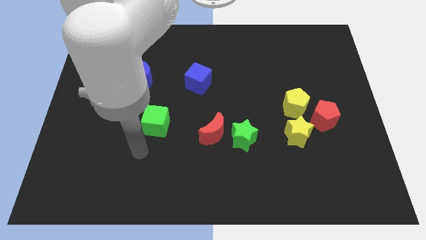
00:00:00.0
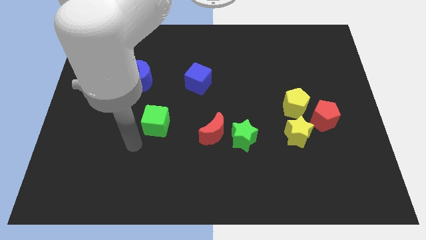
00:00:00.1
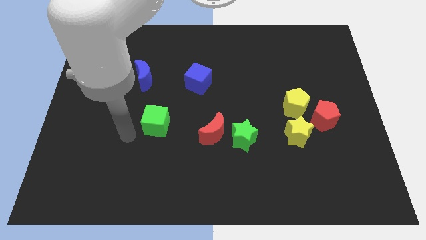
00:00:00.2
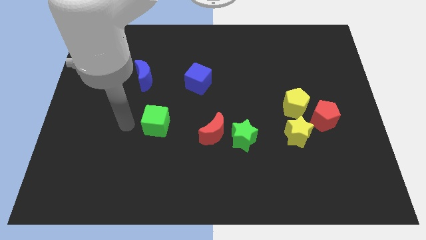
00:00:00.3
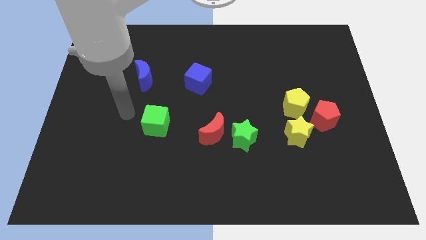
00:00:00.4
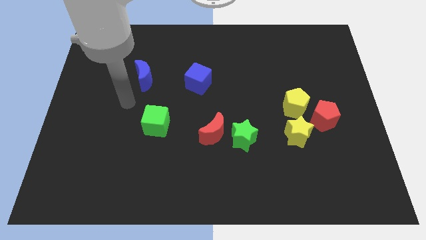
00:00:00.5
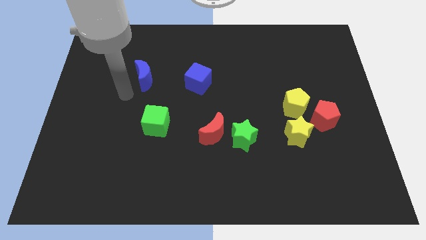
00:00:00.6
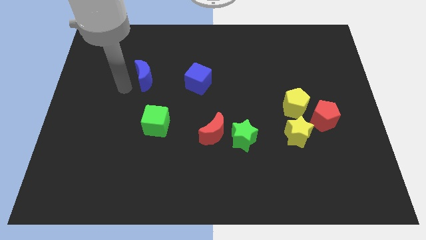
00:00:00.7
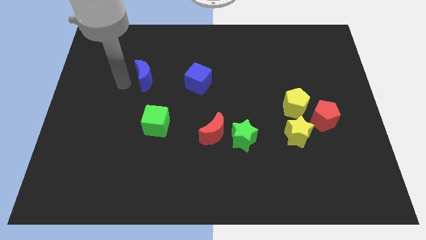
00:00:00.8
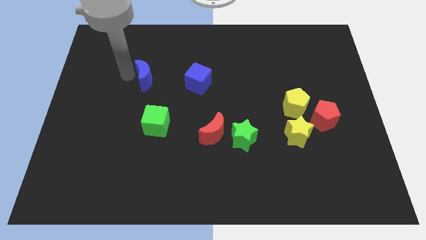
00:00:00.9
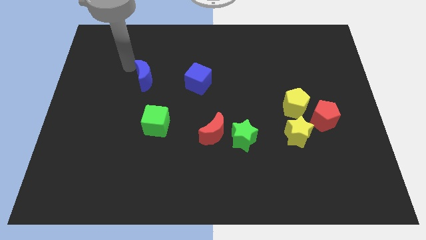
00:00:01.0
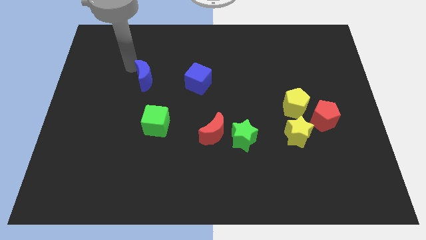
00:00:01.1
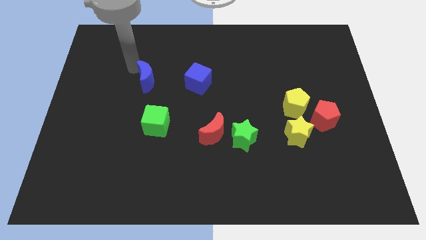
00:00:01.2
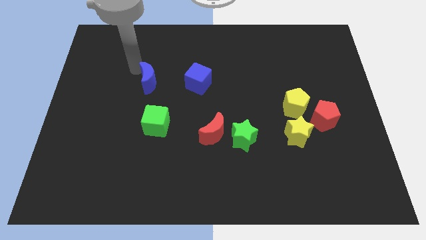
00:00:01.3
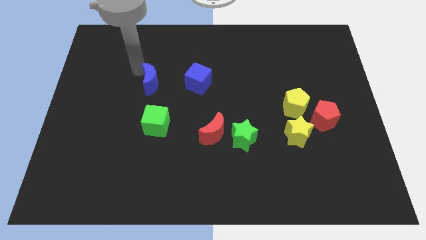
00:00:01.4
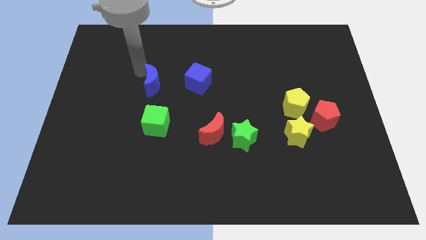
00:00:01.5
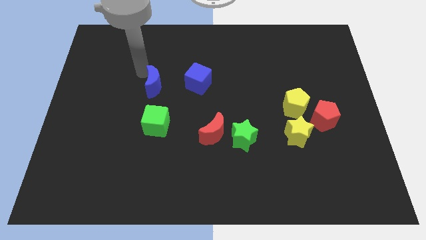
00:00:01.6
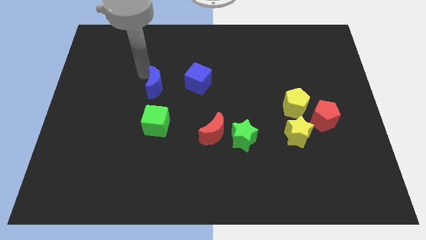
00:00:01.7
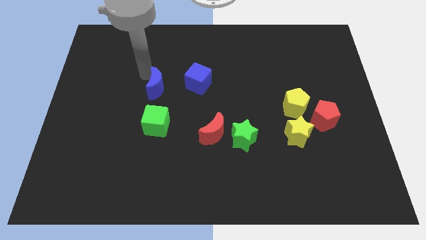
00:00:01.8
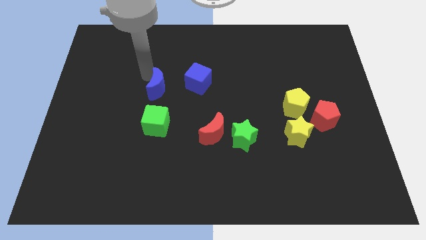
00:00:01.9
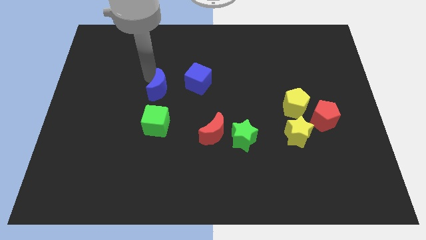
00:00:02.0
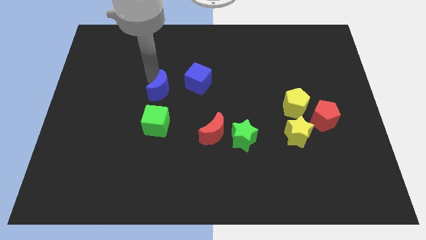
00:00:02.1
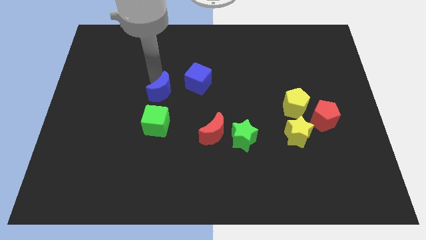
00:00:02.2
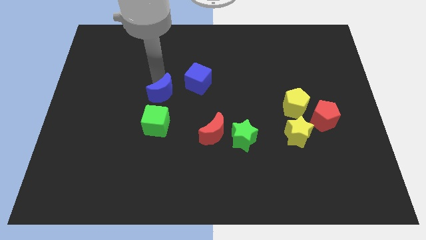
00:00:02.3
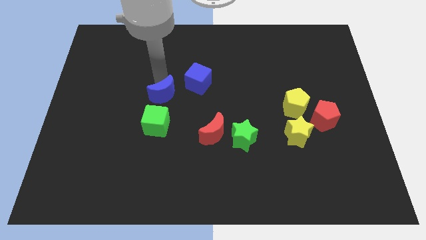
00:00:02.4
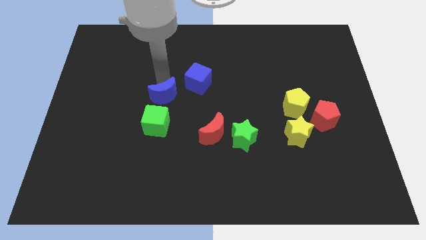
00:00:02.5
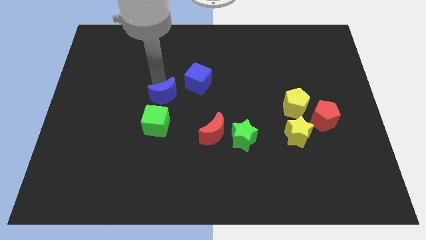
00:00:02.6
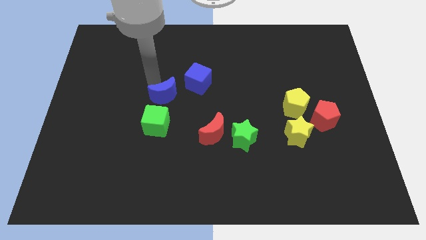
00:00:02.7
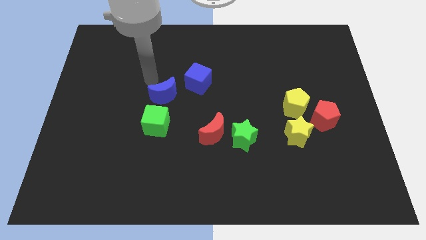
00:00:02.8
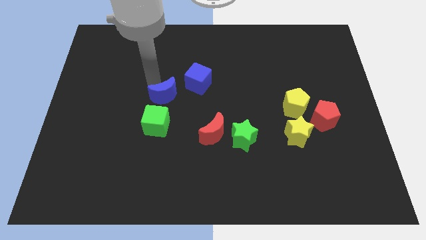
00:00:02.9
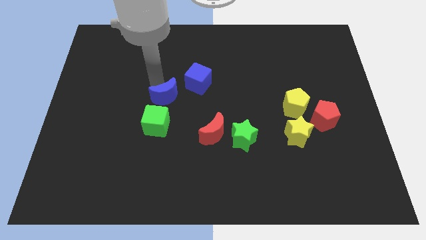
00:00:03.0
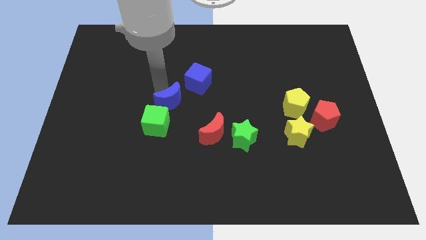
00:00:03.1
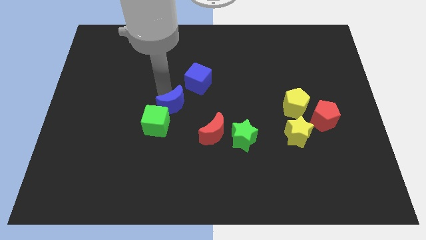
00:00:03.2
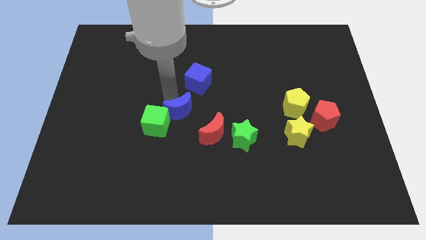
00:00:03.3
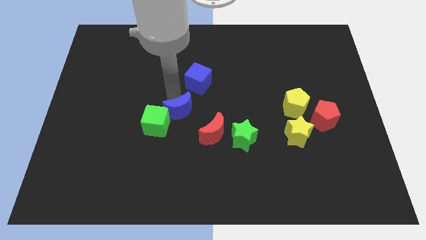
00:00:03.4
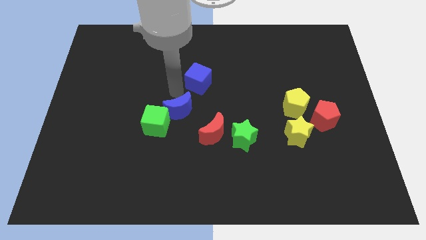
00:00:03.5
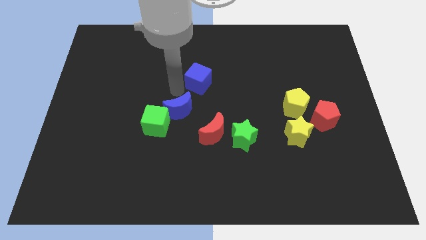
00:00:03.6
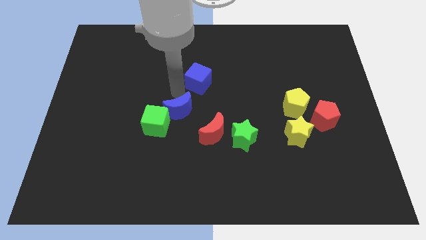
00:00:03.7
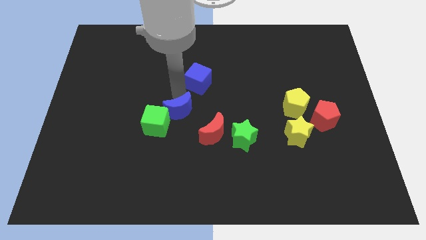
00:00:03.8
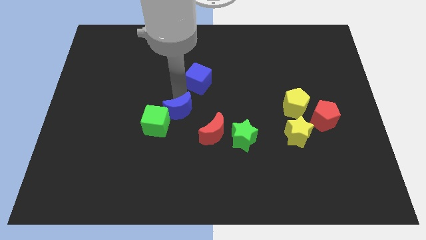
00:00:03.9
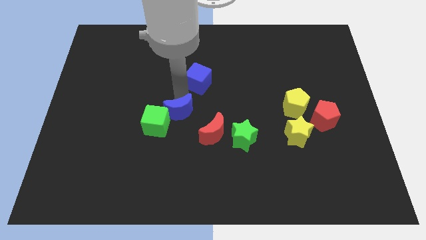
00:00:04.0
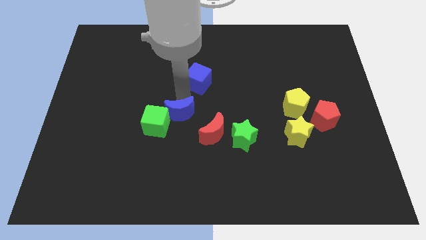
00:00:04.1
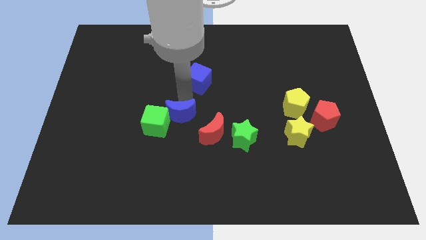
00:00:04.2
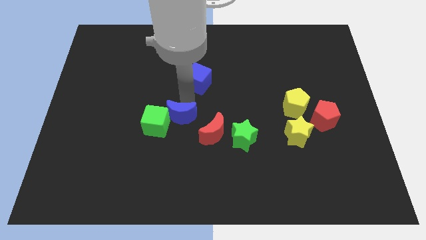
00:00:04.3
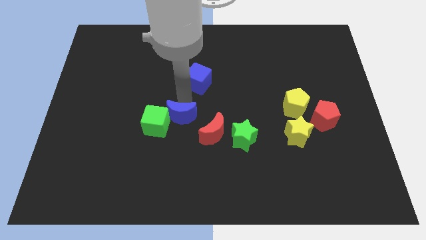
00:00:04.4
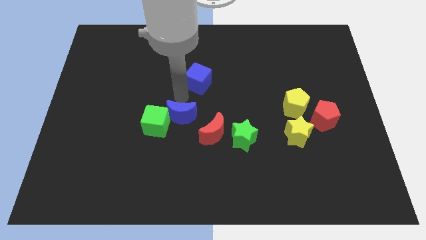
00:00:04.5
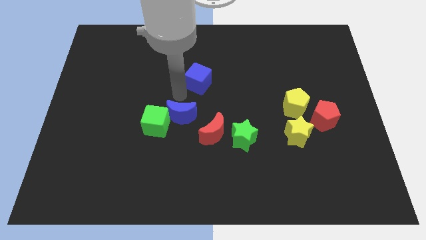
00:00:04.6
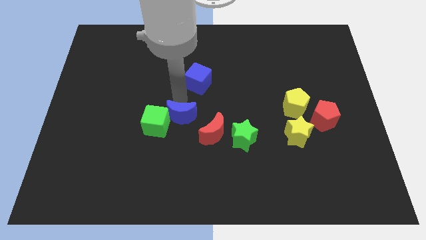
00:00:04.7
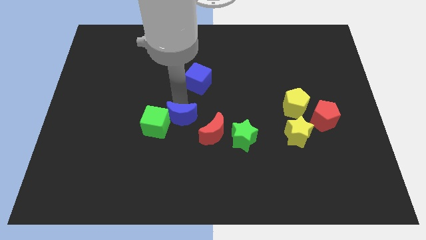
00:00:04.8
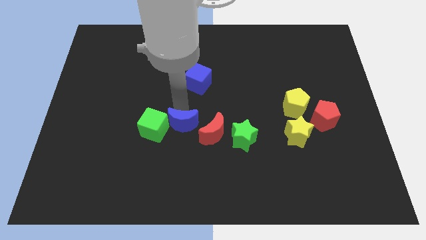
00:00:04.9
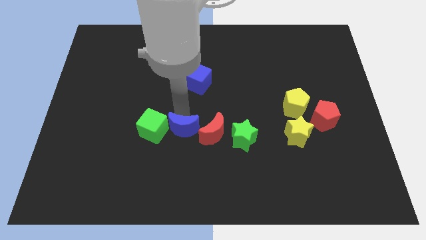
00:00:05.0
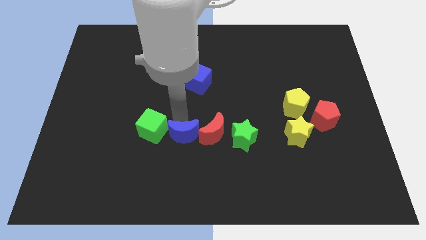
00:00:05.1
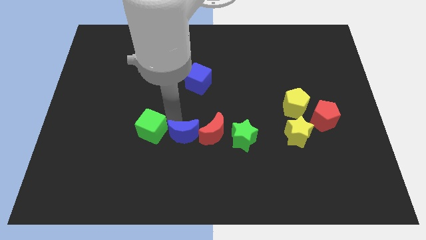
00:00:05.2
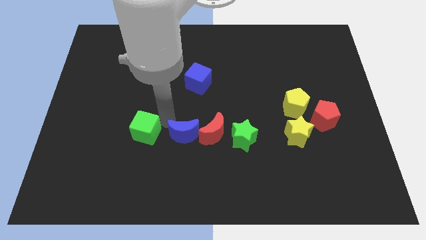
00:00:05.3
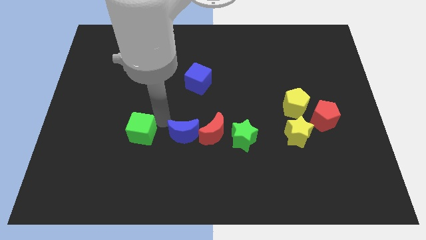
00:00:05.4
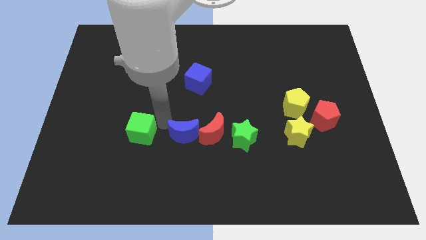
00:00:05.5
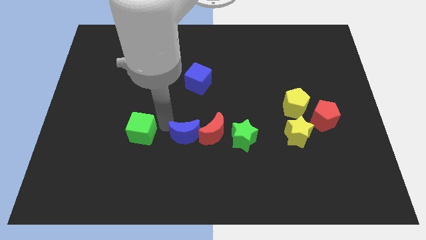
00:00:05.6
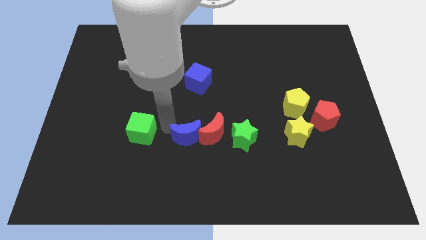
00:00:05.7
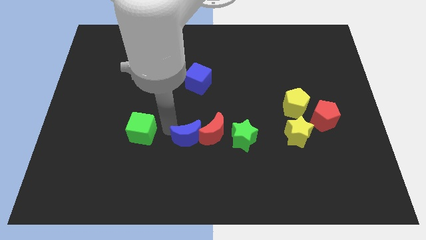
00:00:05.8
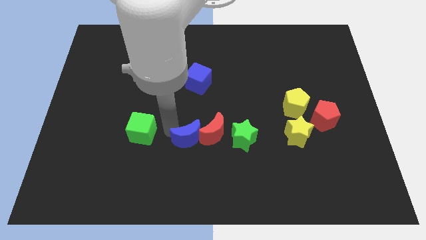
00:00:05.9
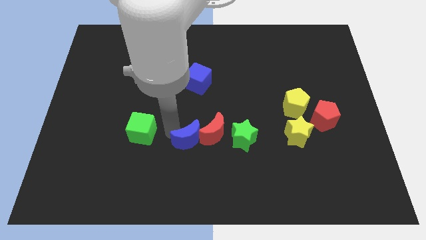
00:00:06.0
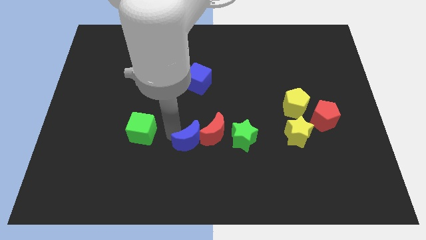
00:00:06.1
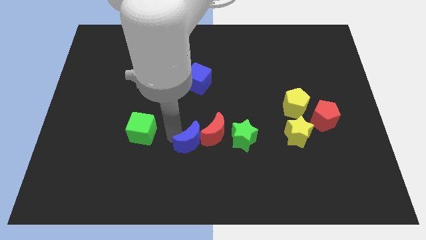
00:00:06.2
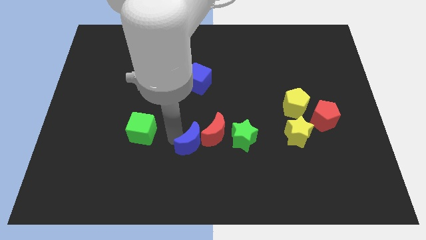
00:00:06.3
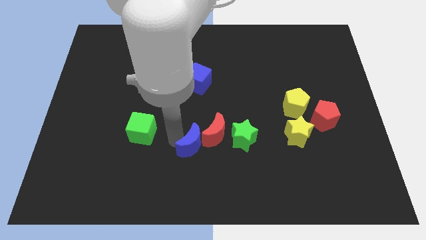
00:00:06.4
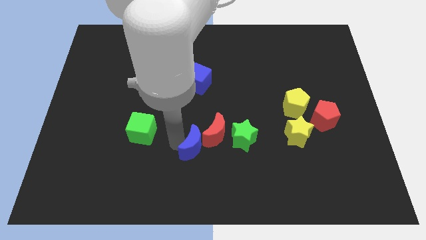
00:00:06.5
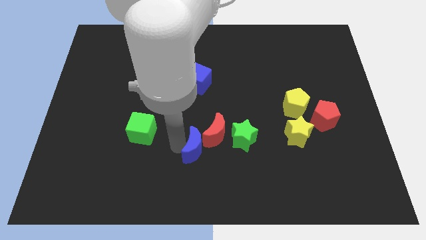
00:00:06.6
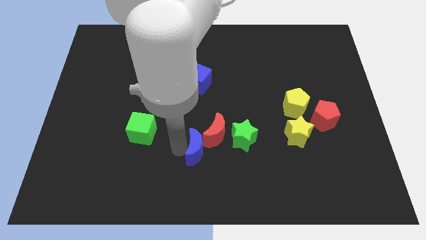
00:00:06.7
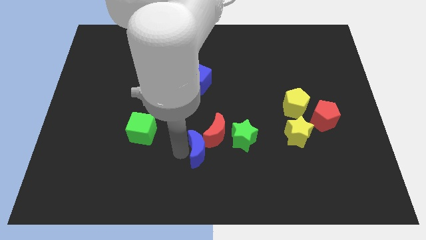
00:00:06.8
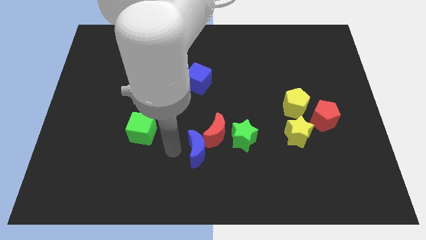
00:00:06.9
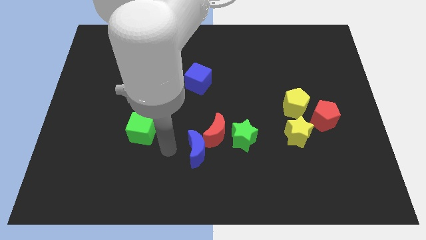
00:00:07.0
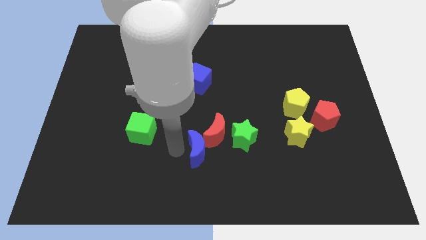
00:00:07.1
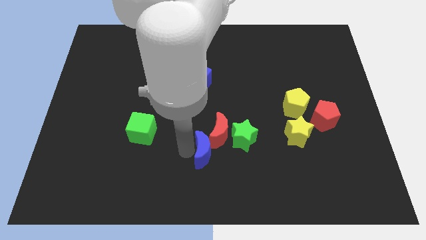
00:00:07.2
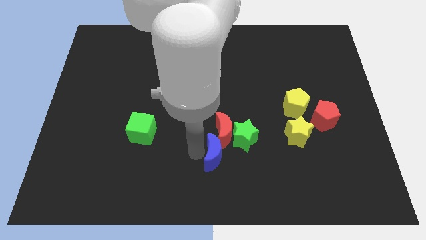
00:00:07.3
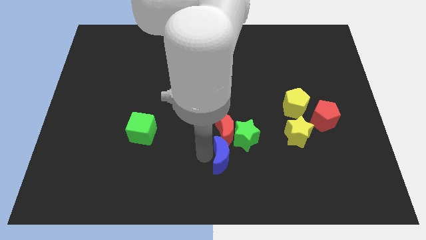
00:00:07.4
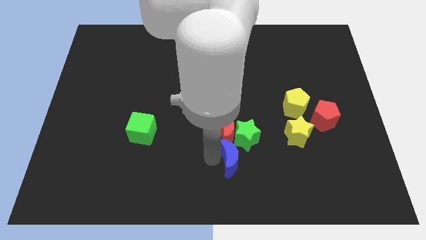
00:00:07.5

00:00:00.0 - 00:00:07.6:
move the blue moon to the bottom right side of the red moon
